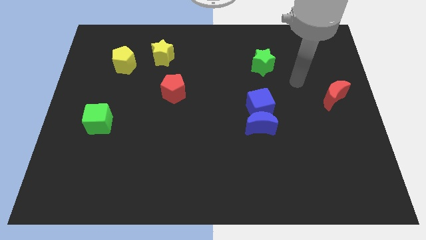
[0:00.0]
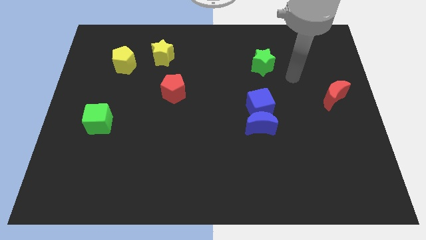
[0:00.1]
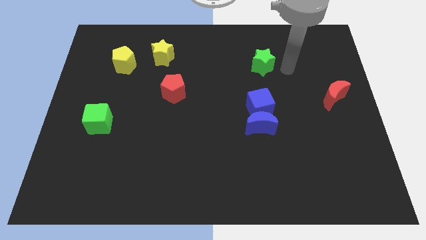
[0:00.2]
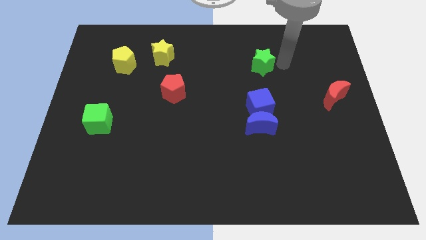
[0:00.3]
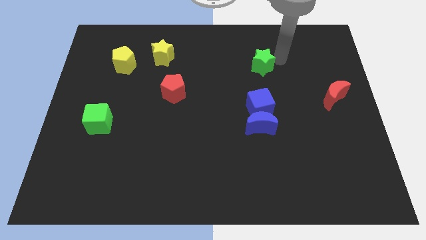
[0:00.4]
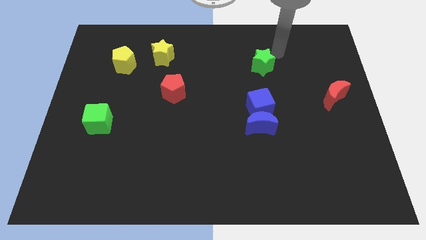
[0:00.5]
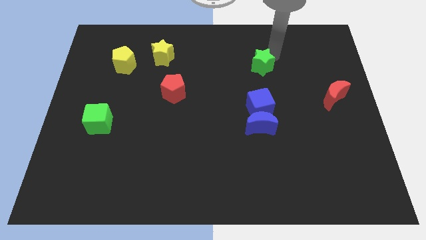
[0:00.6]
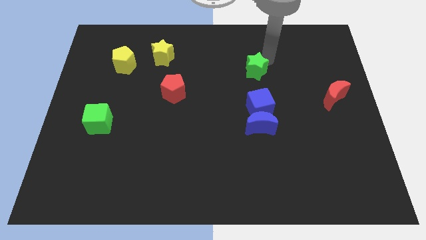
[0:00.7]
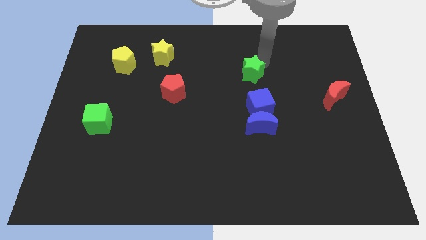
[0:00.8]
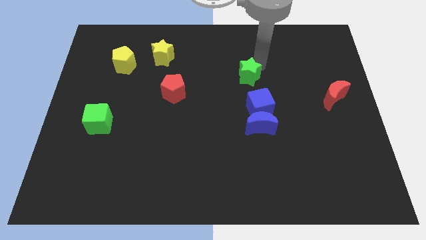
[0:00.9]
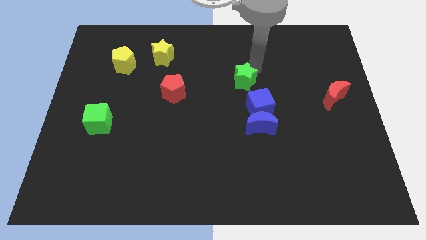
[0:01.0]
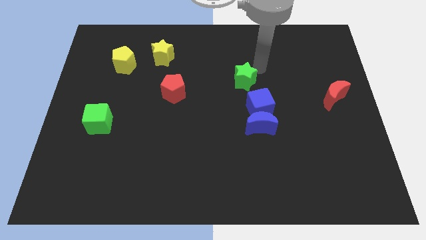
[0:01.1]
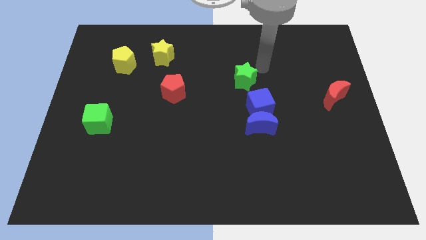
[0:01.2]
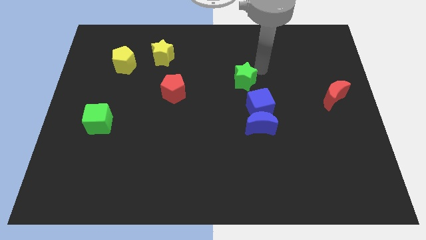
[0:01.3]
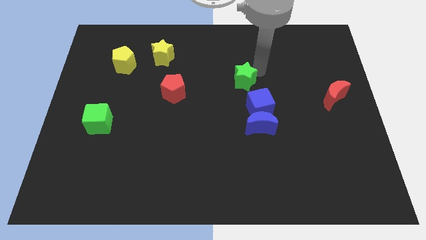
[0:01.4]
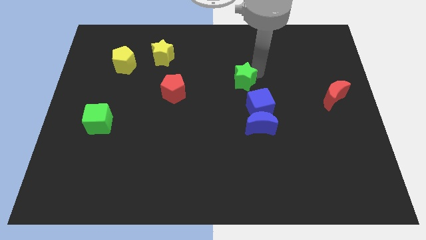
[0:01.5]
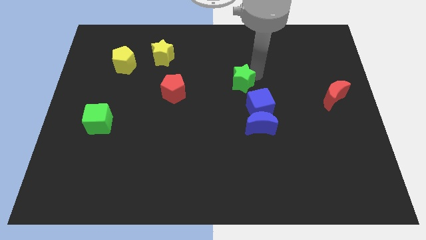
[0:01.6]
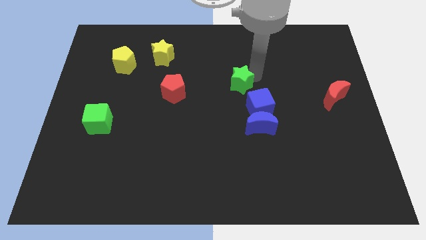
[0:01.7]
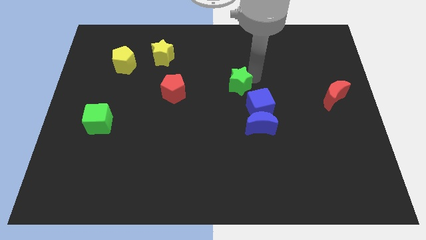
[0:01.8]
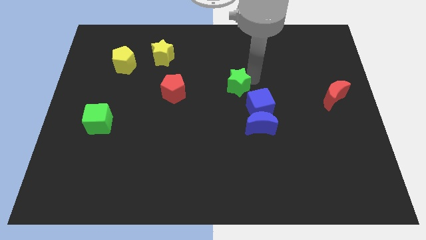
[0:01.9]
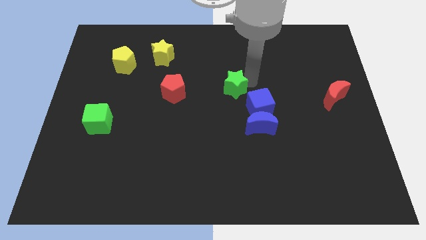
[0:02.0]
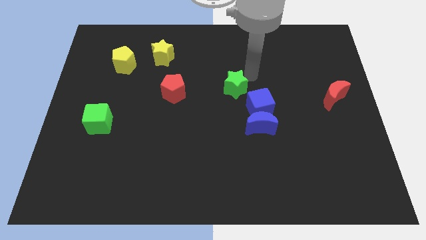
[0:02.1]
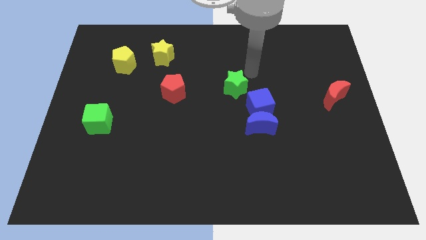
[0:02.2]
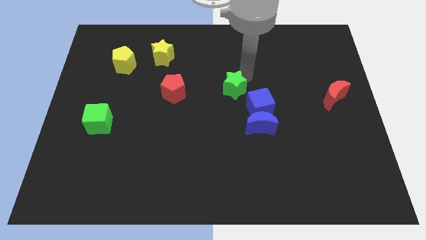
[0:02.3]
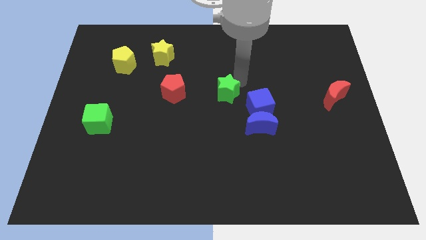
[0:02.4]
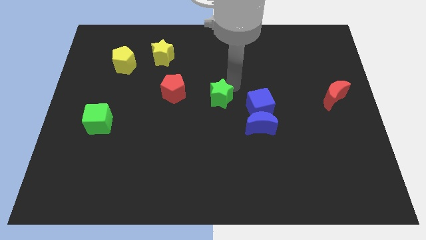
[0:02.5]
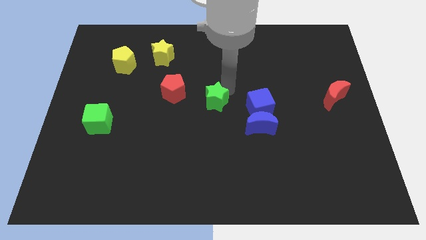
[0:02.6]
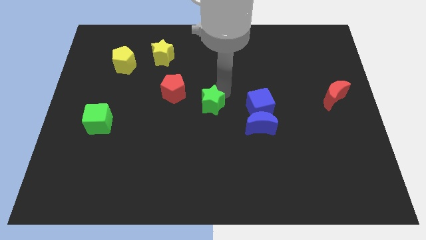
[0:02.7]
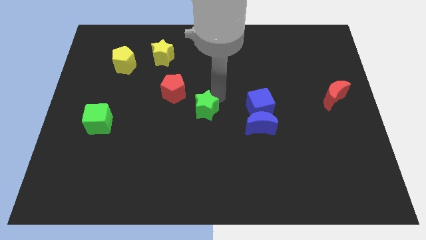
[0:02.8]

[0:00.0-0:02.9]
slide the green star downwards and then to the left

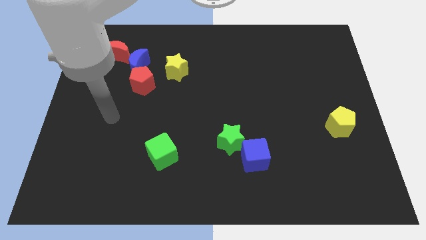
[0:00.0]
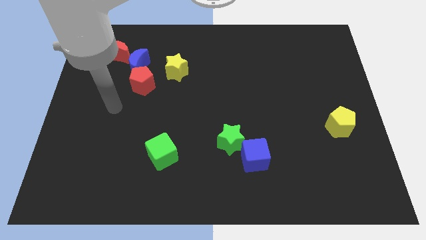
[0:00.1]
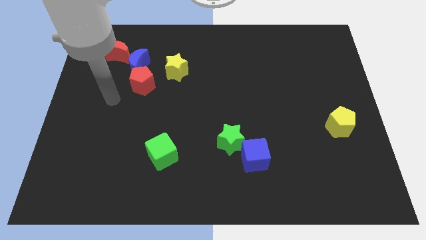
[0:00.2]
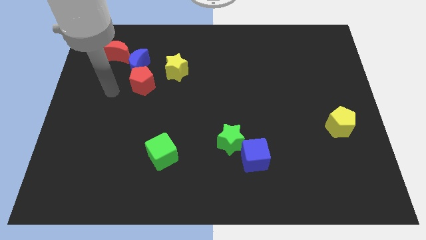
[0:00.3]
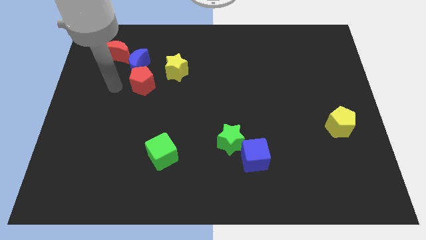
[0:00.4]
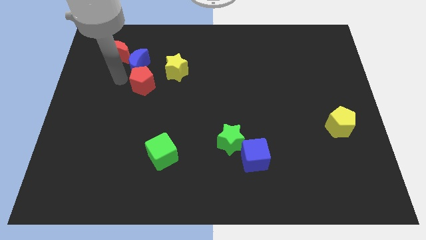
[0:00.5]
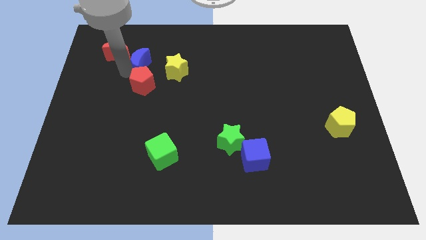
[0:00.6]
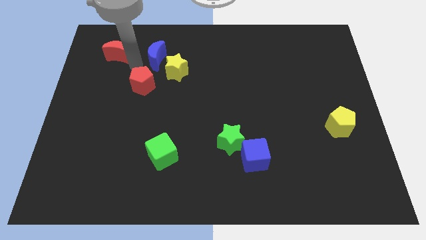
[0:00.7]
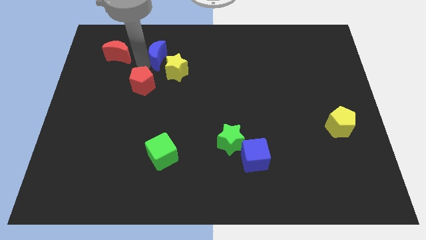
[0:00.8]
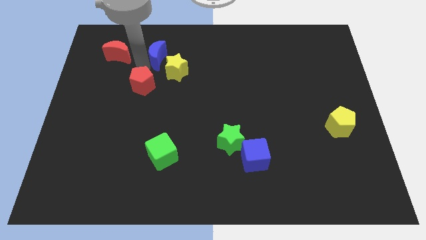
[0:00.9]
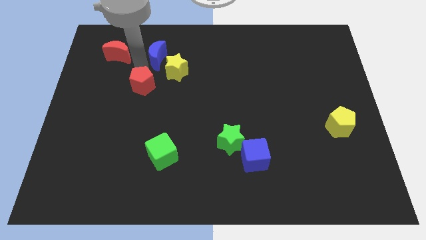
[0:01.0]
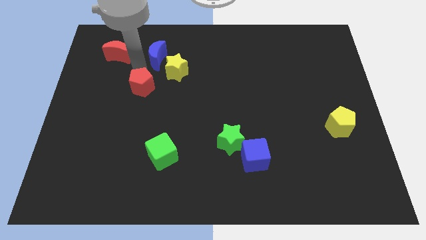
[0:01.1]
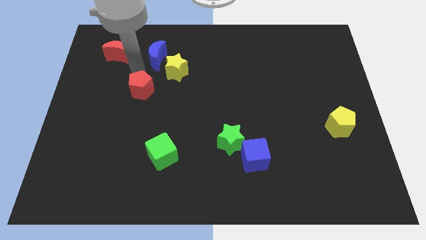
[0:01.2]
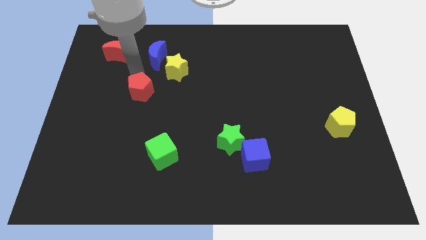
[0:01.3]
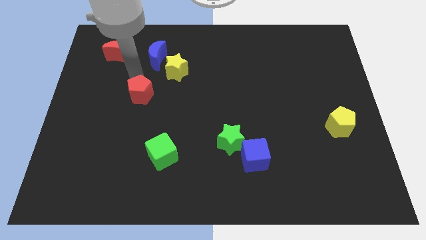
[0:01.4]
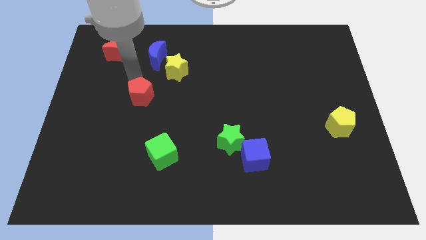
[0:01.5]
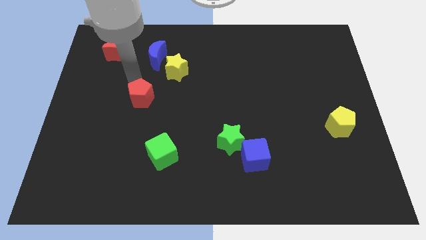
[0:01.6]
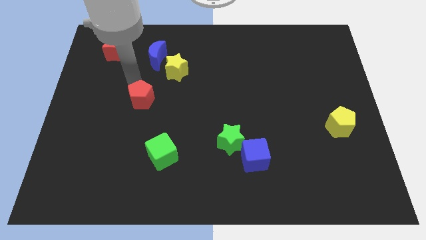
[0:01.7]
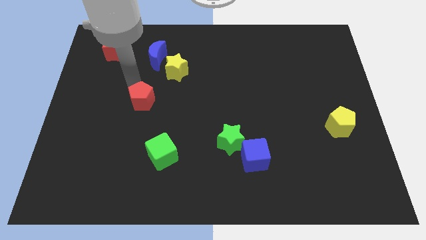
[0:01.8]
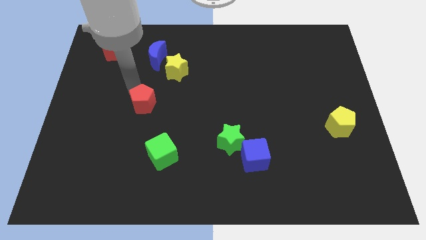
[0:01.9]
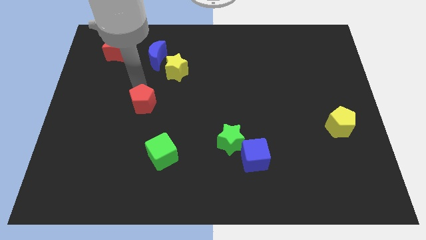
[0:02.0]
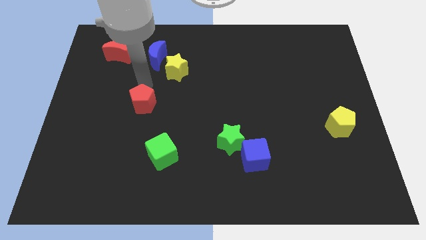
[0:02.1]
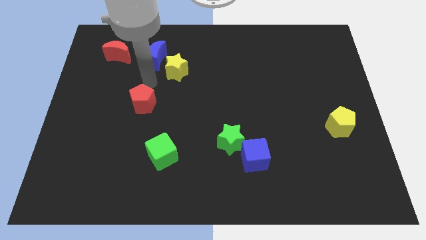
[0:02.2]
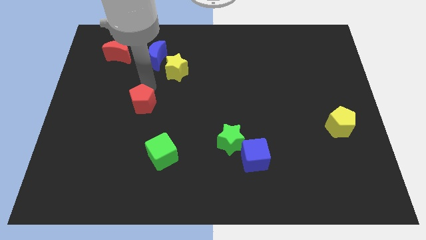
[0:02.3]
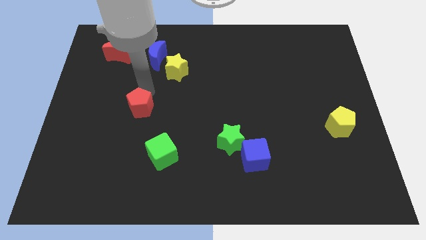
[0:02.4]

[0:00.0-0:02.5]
move the red pentagon down a little

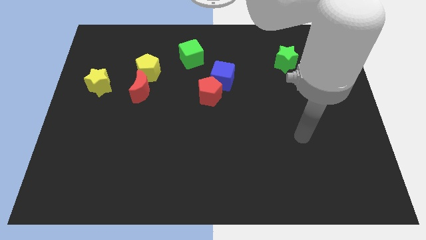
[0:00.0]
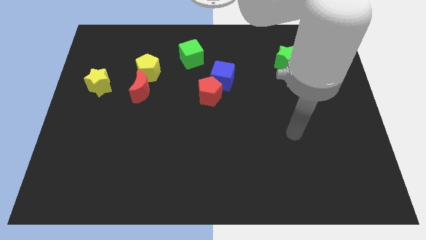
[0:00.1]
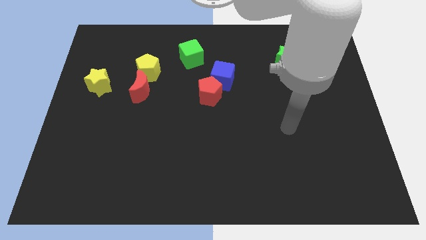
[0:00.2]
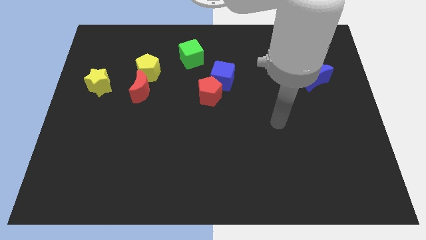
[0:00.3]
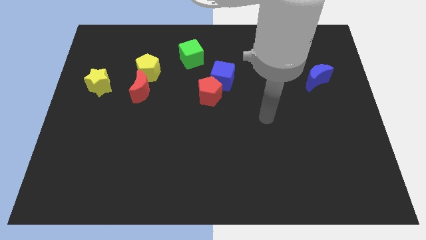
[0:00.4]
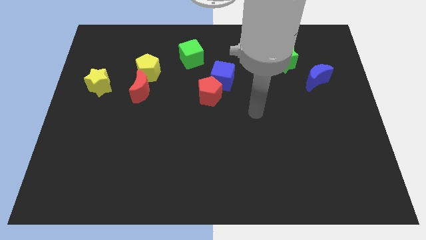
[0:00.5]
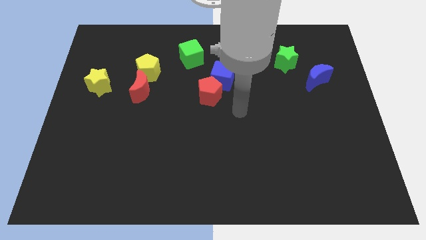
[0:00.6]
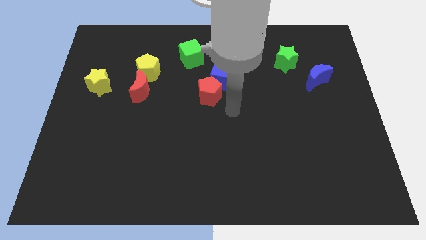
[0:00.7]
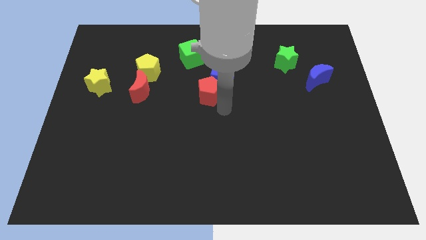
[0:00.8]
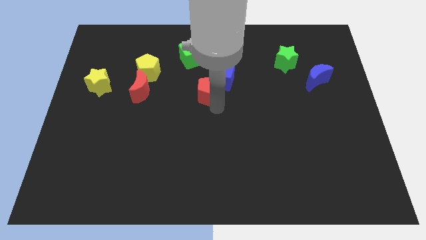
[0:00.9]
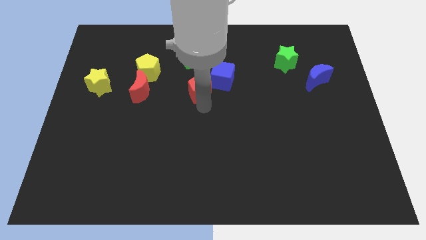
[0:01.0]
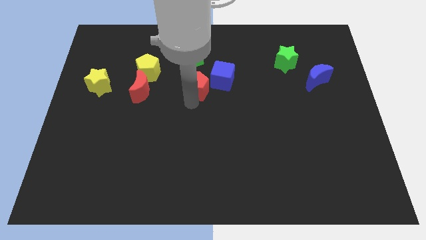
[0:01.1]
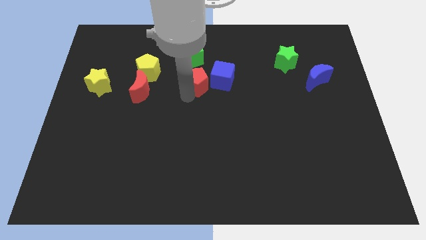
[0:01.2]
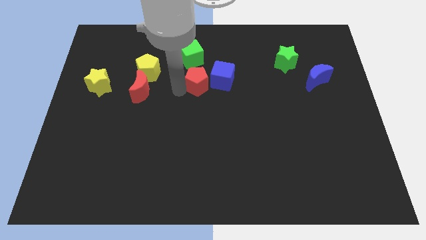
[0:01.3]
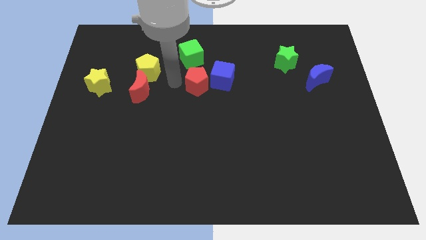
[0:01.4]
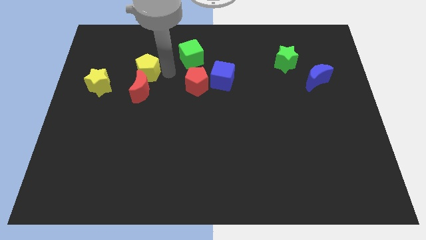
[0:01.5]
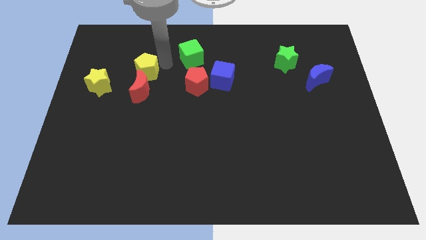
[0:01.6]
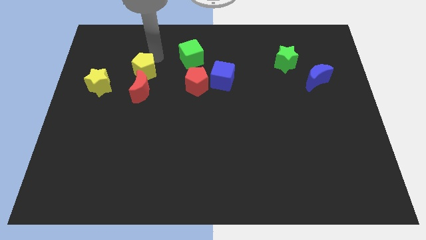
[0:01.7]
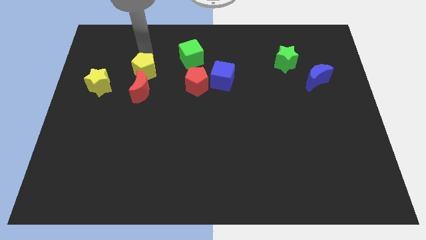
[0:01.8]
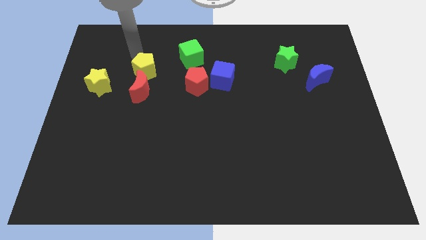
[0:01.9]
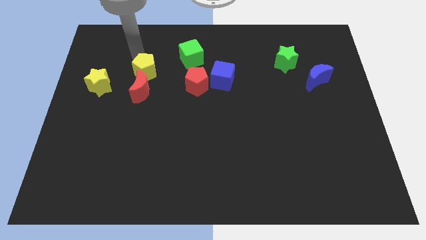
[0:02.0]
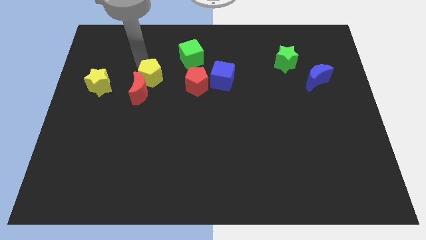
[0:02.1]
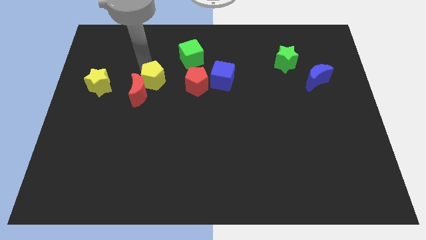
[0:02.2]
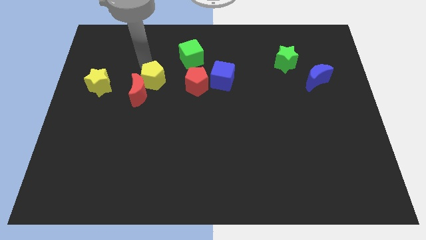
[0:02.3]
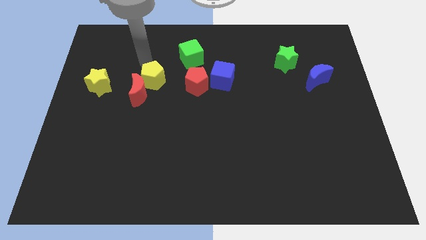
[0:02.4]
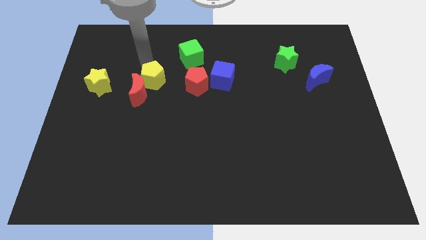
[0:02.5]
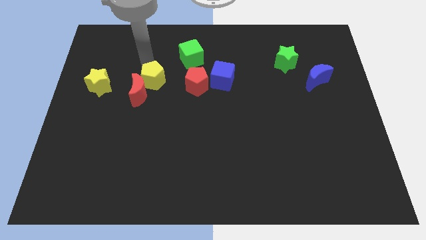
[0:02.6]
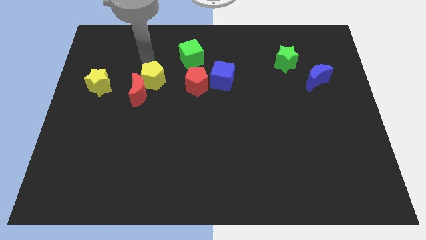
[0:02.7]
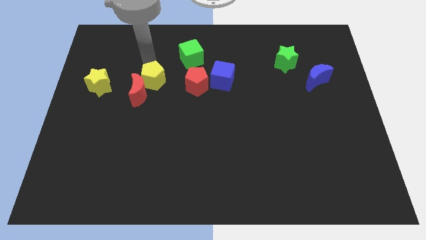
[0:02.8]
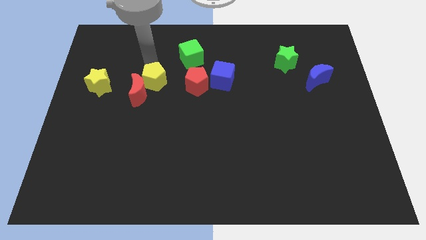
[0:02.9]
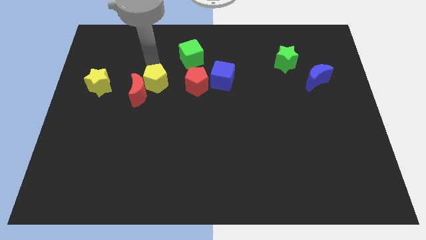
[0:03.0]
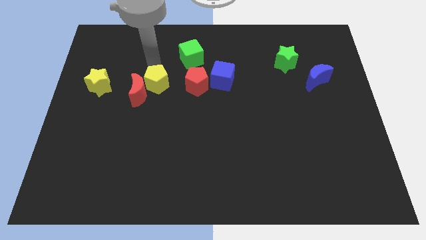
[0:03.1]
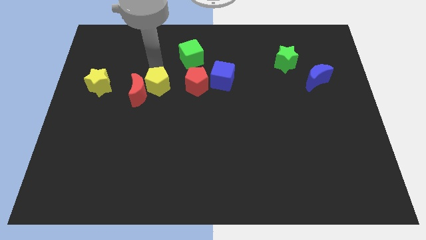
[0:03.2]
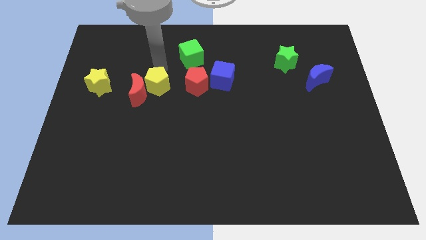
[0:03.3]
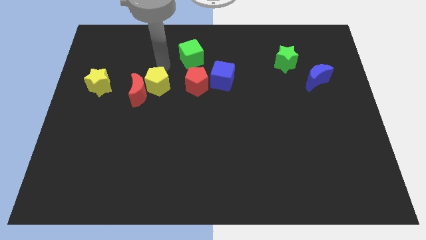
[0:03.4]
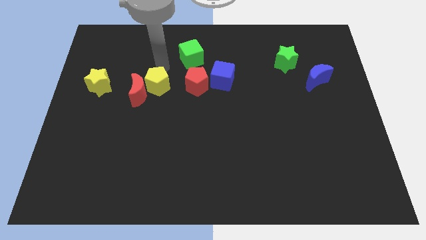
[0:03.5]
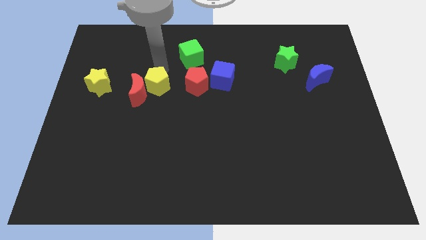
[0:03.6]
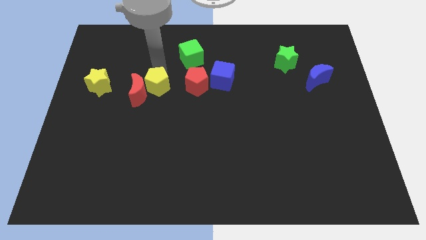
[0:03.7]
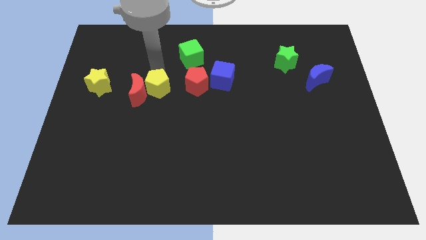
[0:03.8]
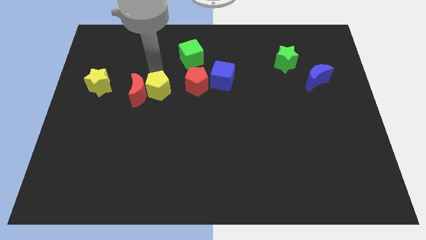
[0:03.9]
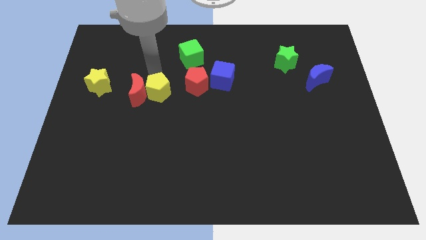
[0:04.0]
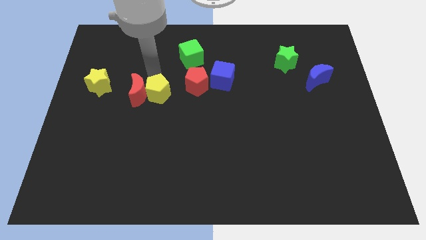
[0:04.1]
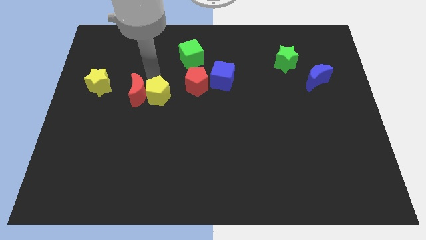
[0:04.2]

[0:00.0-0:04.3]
move the yellow pentagon a little downwards
